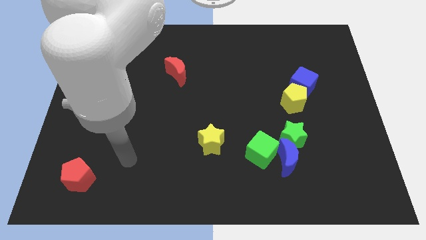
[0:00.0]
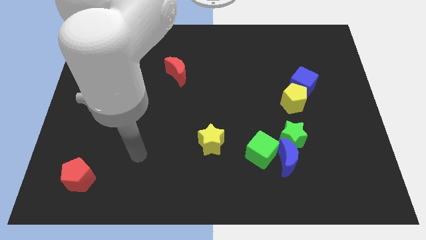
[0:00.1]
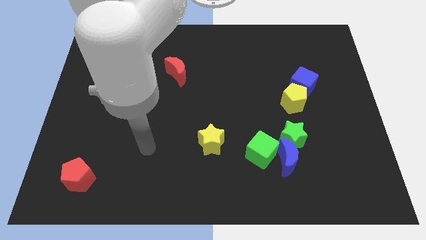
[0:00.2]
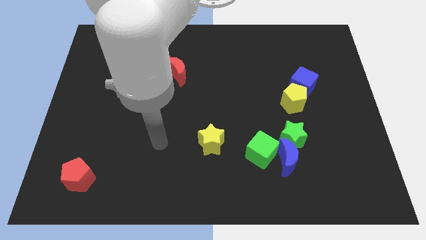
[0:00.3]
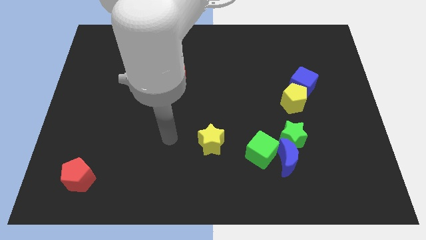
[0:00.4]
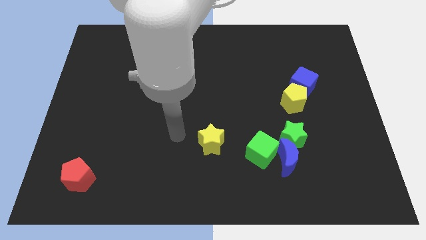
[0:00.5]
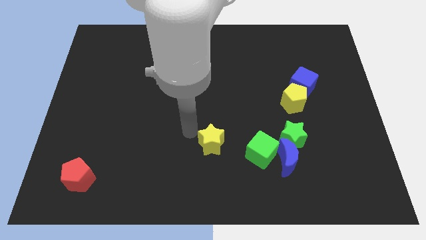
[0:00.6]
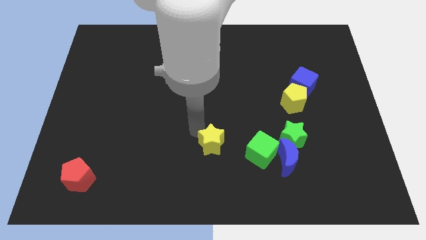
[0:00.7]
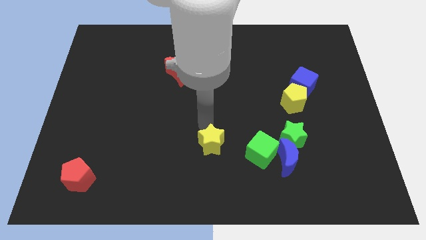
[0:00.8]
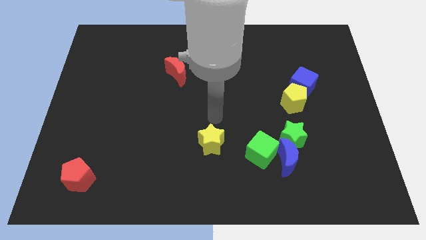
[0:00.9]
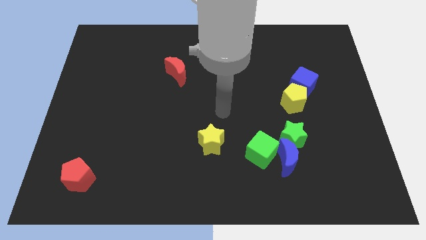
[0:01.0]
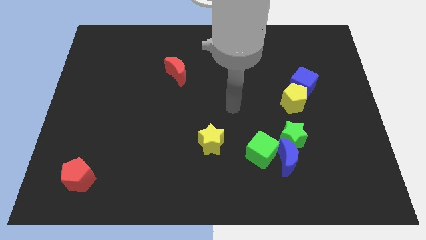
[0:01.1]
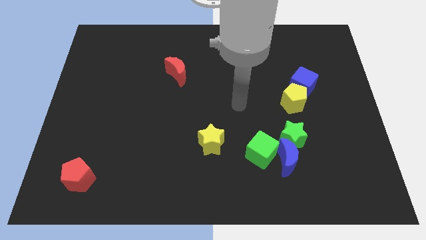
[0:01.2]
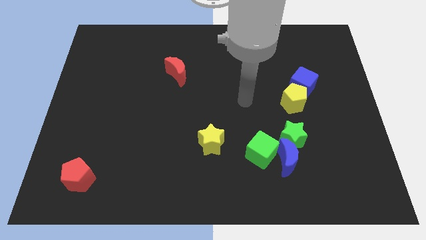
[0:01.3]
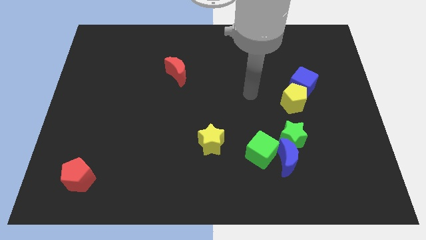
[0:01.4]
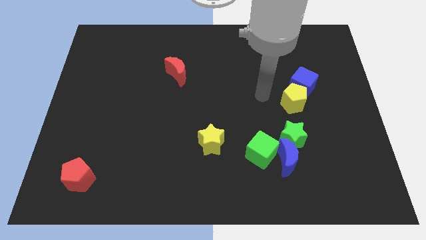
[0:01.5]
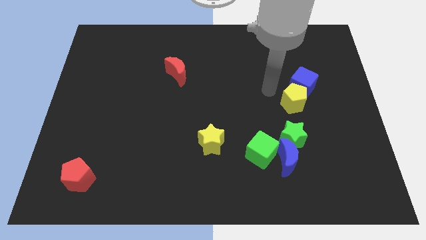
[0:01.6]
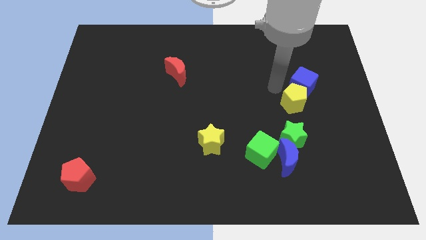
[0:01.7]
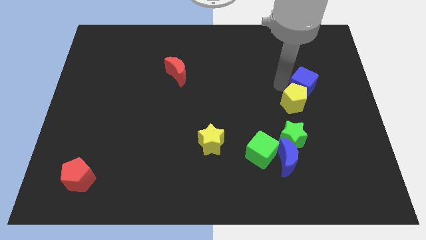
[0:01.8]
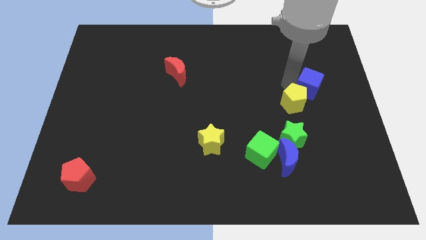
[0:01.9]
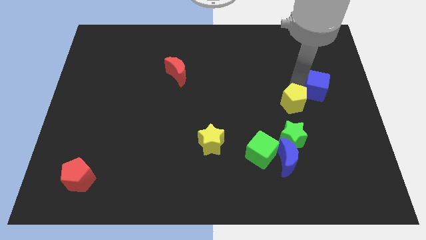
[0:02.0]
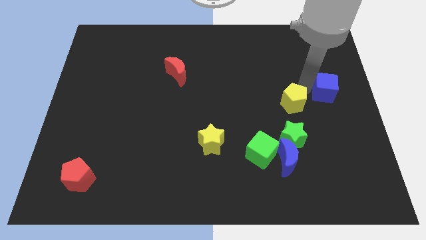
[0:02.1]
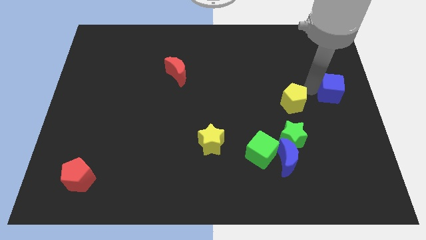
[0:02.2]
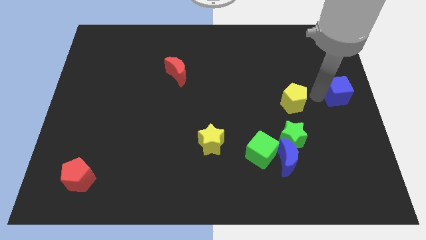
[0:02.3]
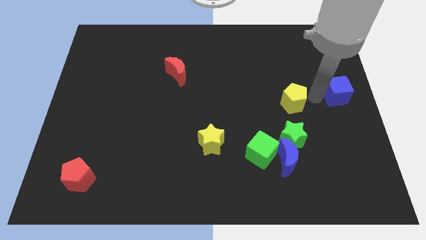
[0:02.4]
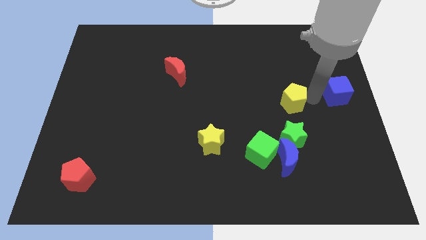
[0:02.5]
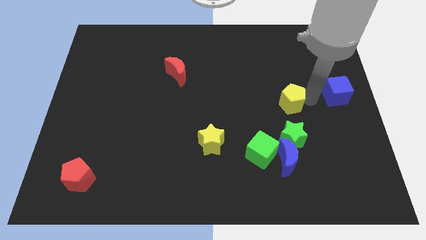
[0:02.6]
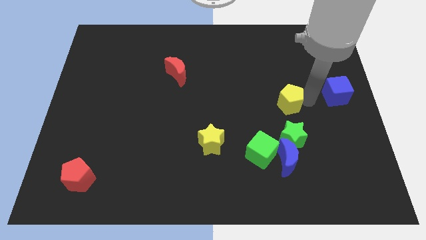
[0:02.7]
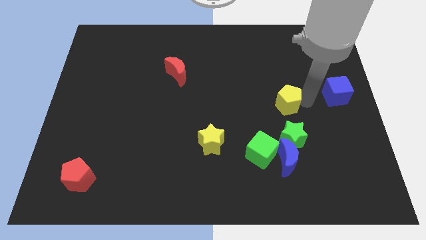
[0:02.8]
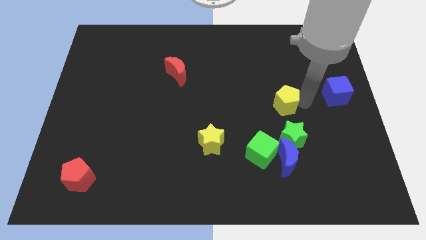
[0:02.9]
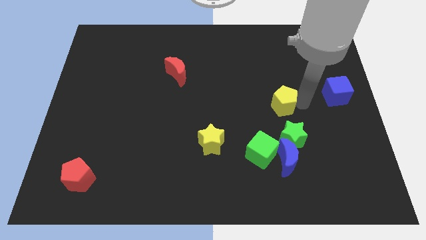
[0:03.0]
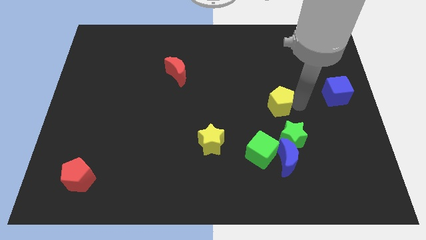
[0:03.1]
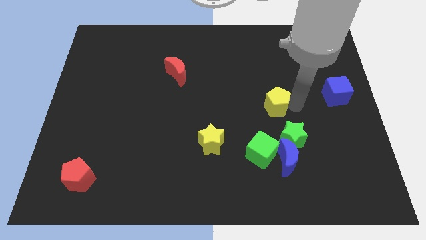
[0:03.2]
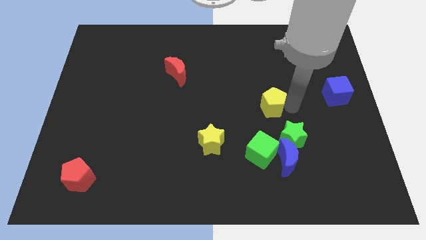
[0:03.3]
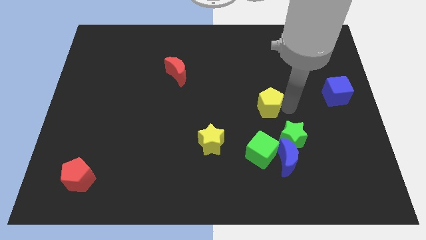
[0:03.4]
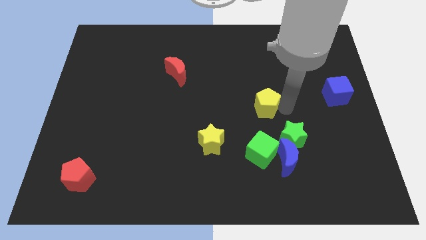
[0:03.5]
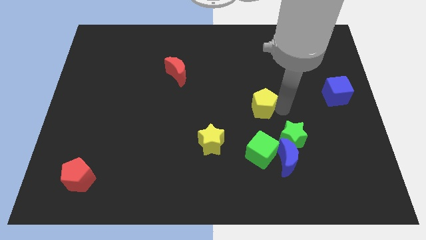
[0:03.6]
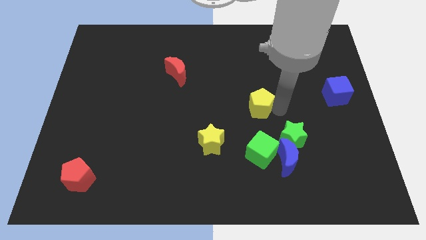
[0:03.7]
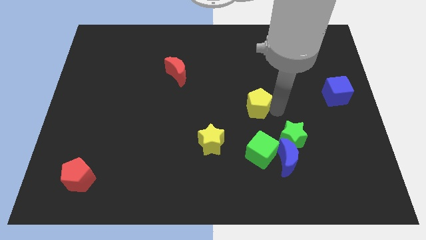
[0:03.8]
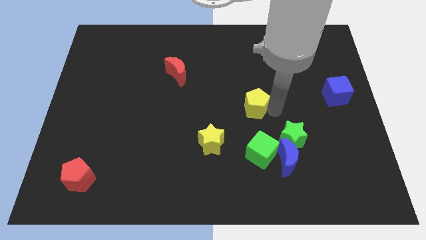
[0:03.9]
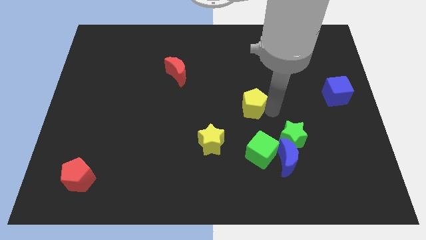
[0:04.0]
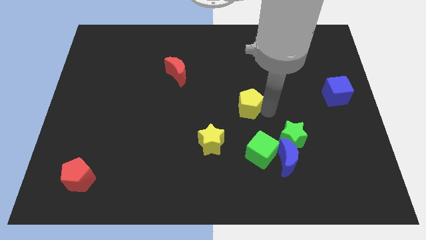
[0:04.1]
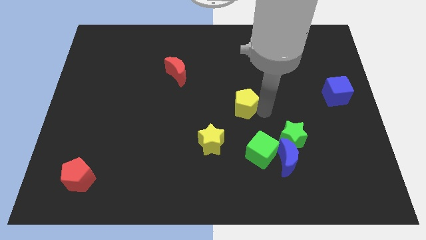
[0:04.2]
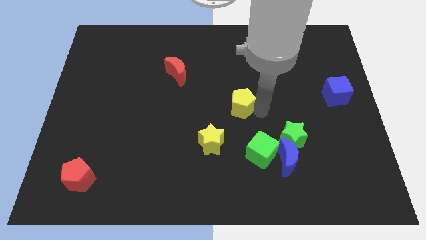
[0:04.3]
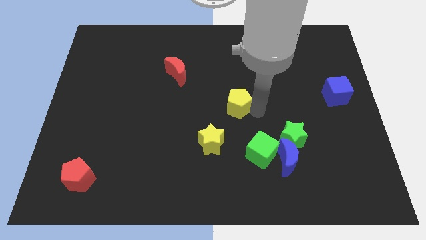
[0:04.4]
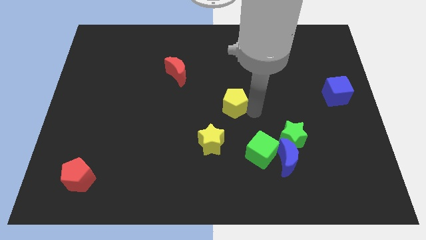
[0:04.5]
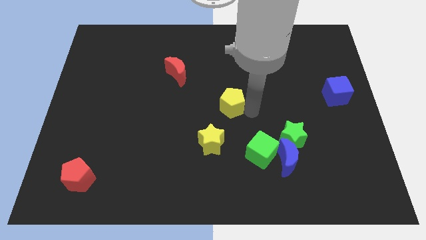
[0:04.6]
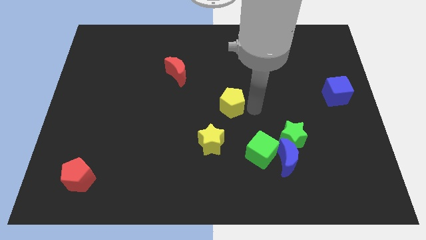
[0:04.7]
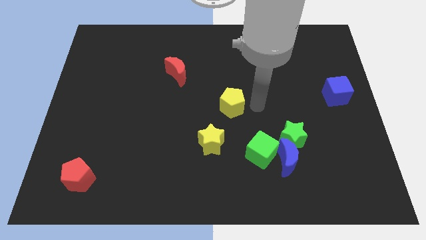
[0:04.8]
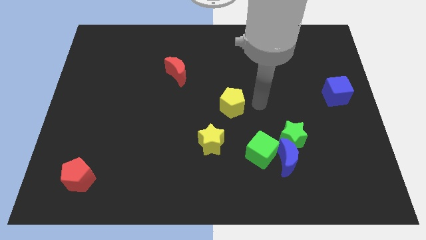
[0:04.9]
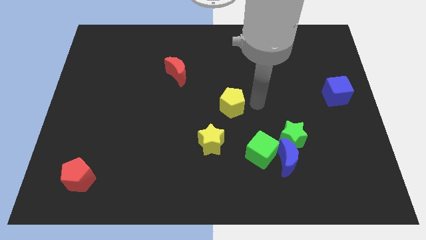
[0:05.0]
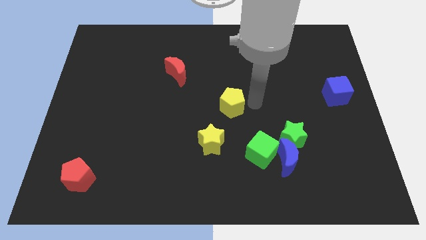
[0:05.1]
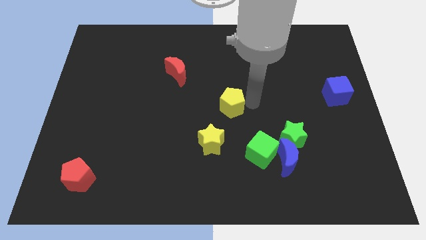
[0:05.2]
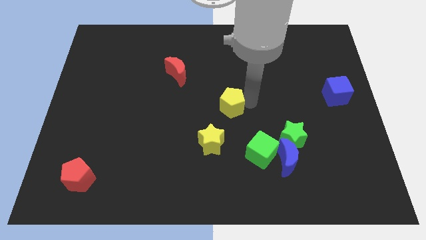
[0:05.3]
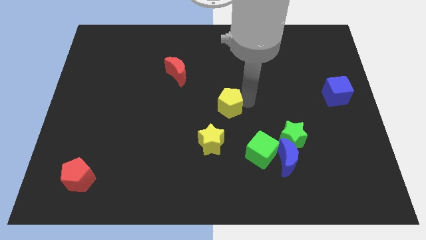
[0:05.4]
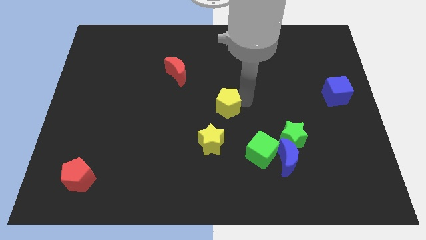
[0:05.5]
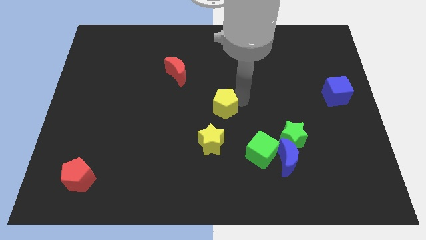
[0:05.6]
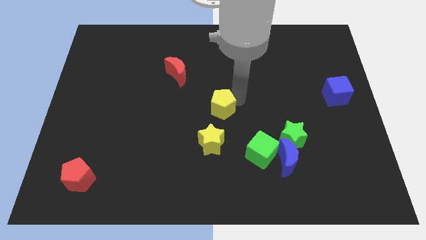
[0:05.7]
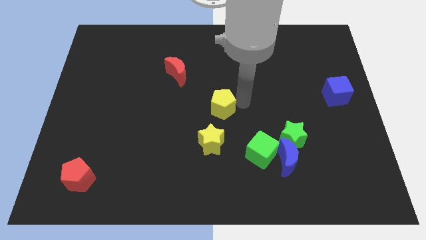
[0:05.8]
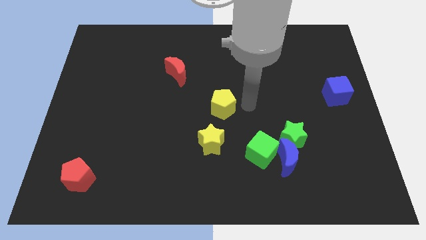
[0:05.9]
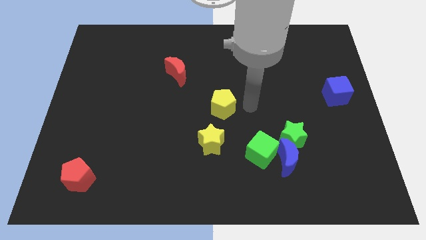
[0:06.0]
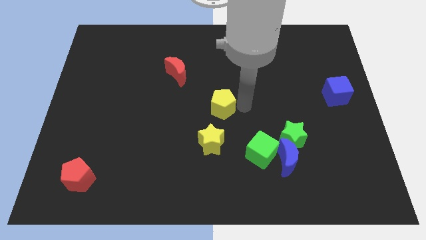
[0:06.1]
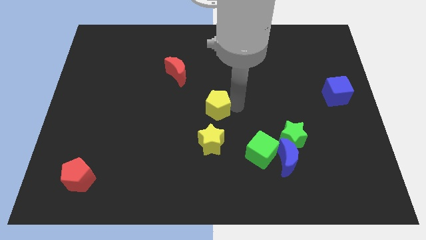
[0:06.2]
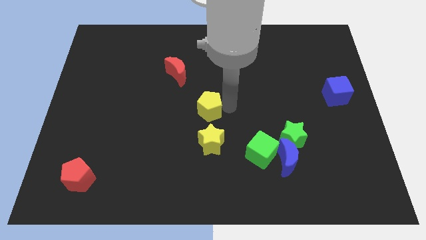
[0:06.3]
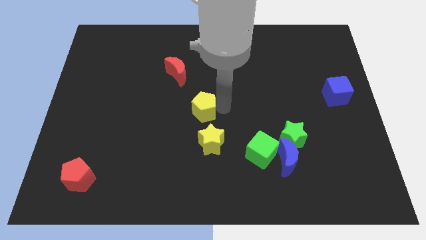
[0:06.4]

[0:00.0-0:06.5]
slide the yellow pentagon left

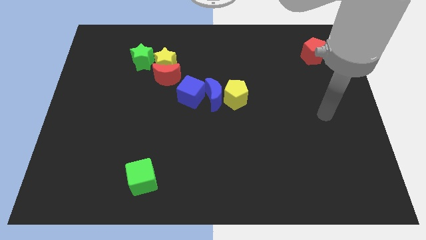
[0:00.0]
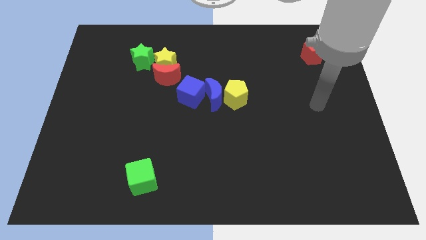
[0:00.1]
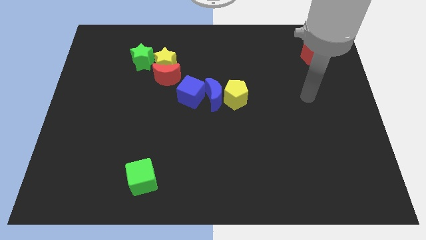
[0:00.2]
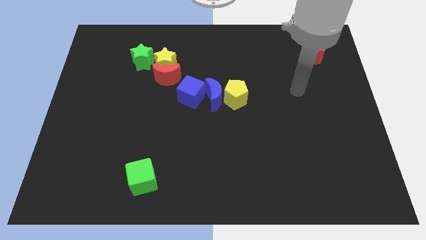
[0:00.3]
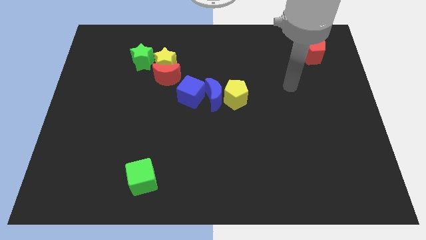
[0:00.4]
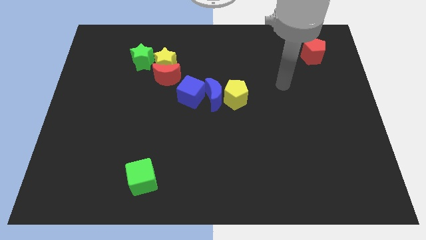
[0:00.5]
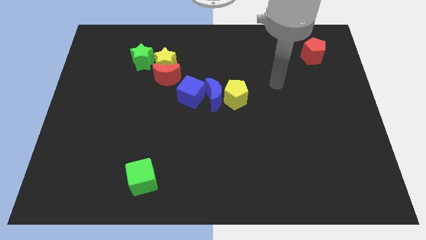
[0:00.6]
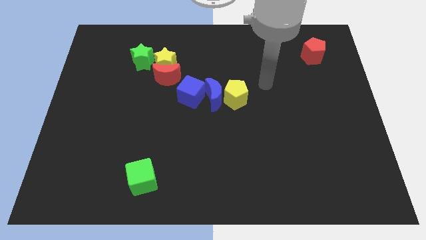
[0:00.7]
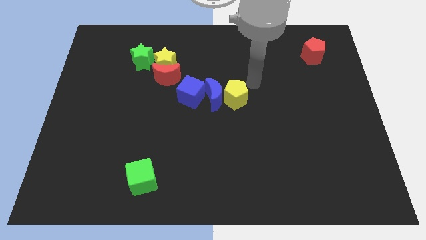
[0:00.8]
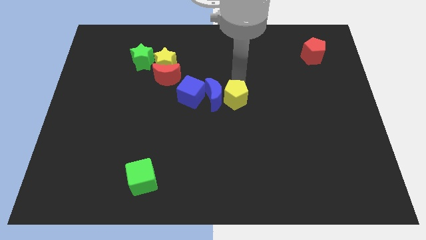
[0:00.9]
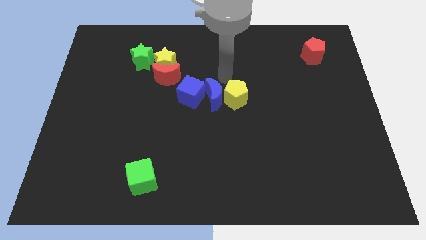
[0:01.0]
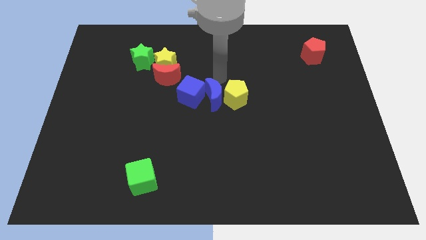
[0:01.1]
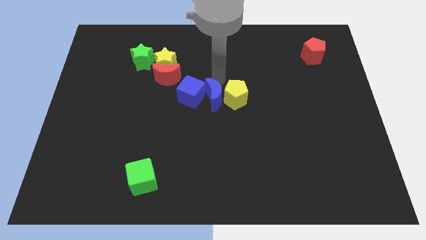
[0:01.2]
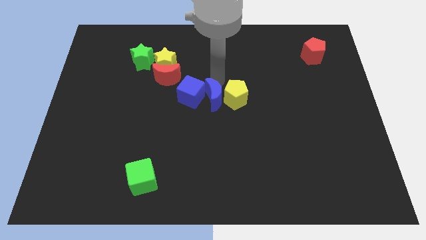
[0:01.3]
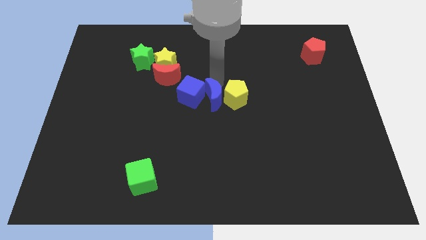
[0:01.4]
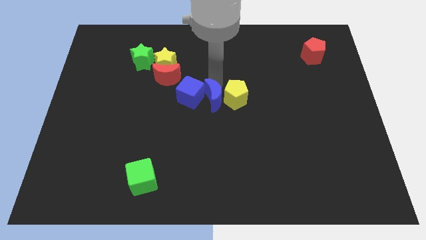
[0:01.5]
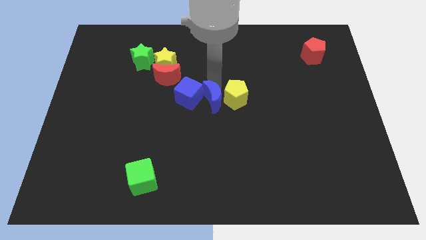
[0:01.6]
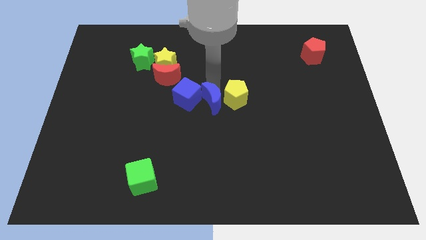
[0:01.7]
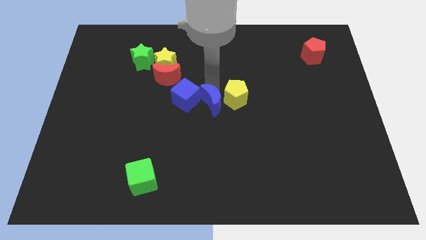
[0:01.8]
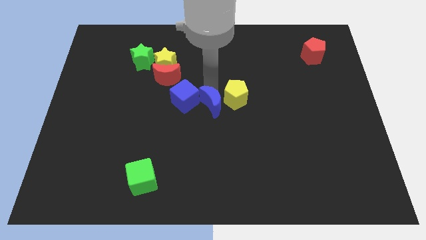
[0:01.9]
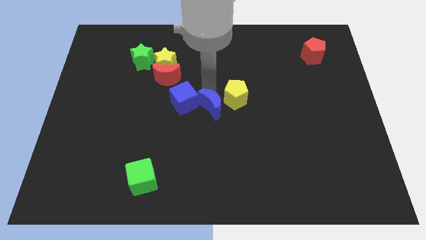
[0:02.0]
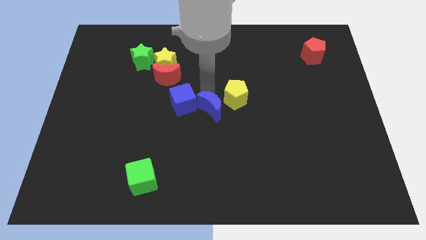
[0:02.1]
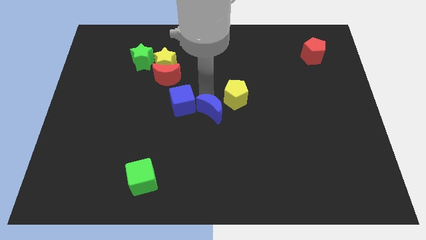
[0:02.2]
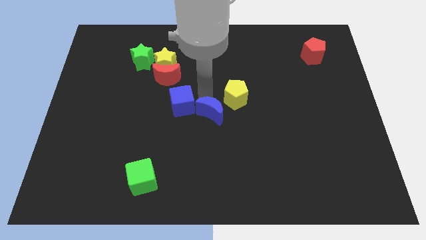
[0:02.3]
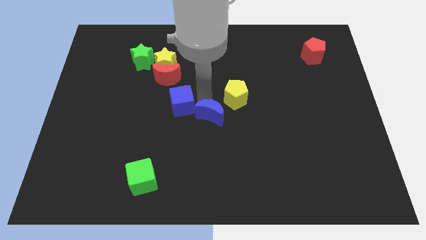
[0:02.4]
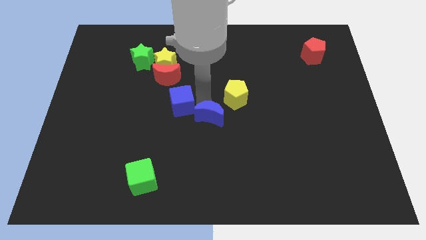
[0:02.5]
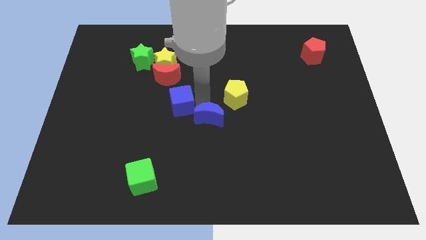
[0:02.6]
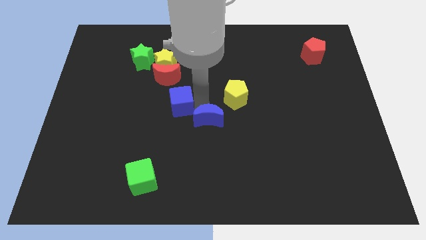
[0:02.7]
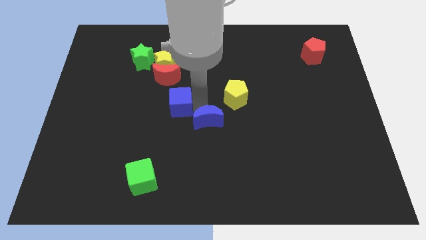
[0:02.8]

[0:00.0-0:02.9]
move the blue moon a little bit down
